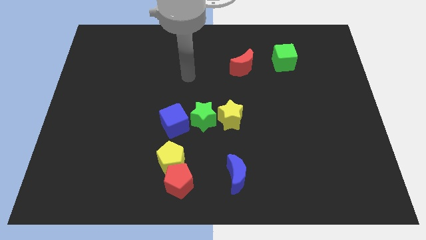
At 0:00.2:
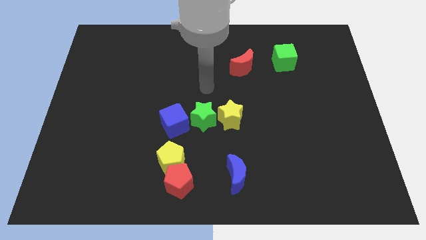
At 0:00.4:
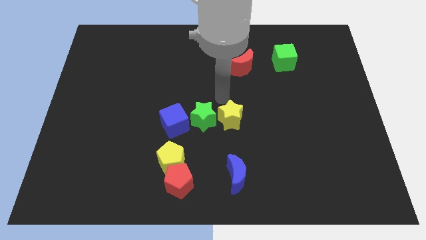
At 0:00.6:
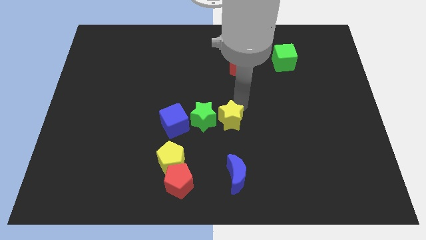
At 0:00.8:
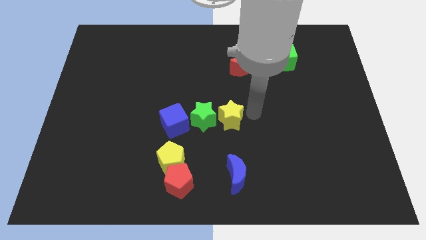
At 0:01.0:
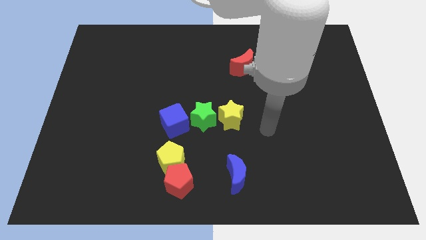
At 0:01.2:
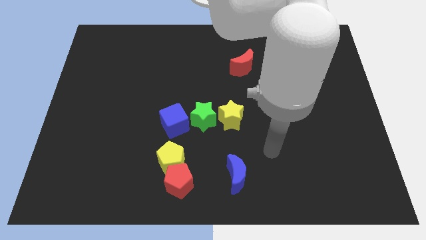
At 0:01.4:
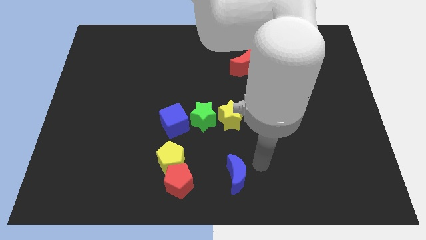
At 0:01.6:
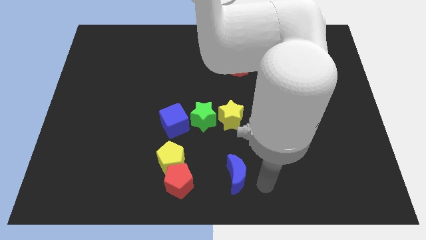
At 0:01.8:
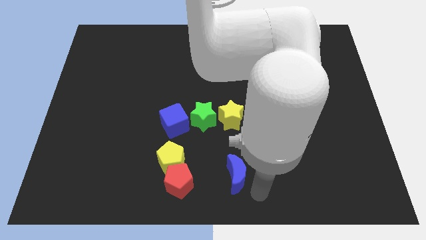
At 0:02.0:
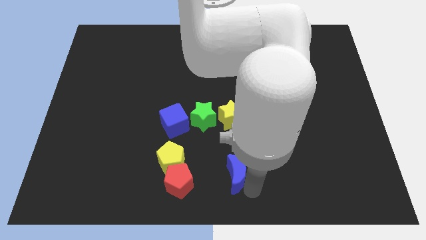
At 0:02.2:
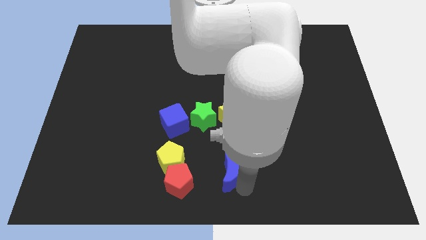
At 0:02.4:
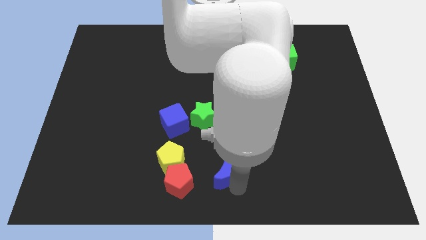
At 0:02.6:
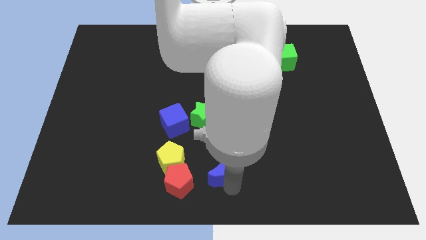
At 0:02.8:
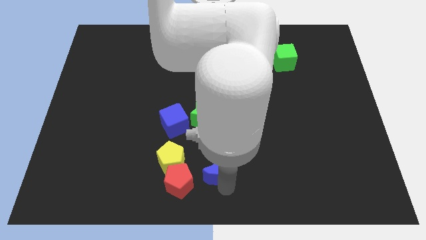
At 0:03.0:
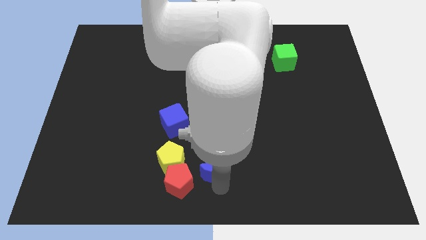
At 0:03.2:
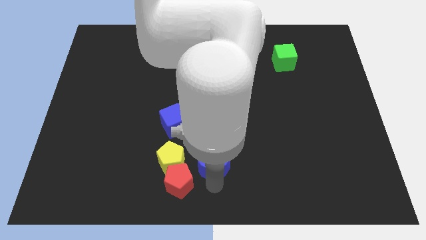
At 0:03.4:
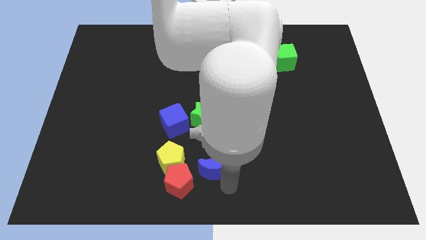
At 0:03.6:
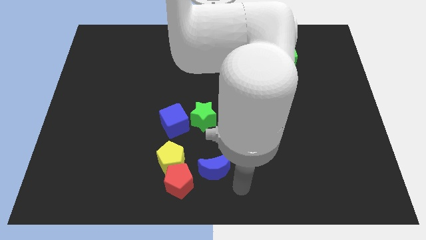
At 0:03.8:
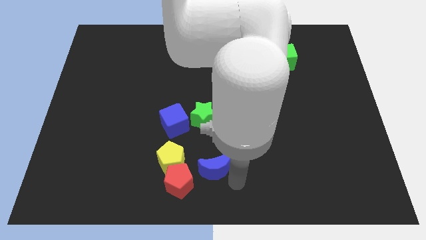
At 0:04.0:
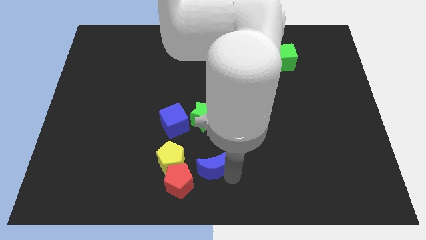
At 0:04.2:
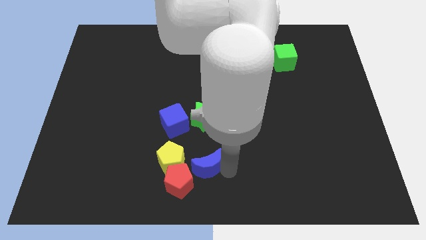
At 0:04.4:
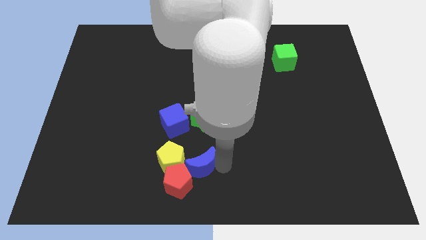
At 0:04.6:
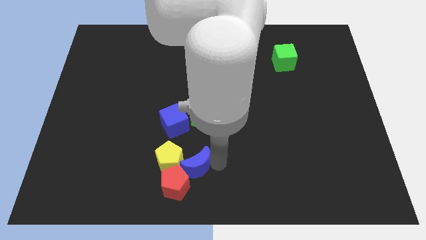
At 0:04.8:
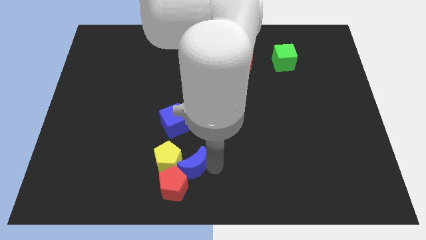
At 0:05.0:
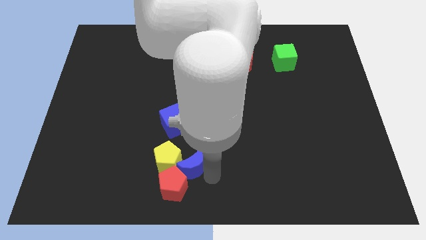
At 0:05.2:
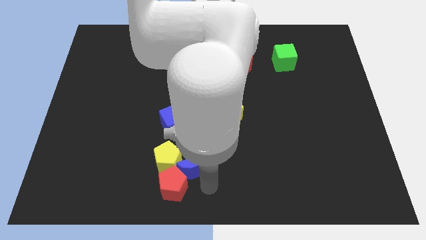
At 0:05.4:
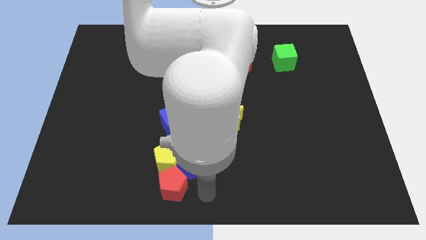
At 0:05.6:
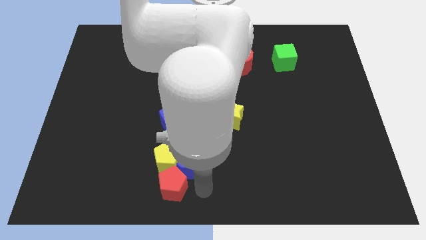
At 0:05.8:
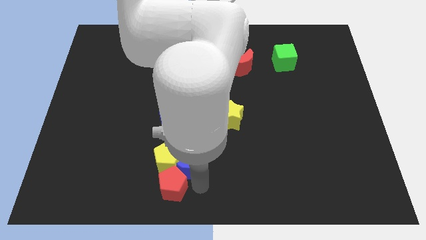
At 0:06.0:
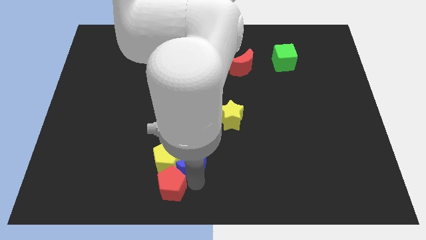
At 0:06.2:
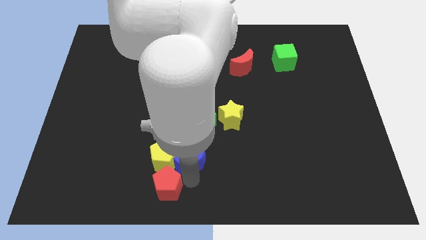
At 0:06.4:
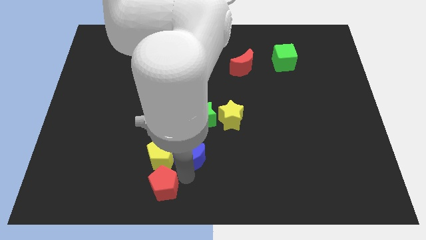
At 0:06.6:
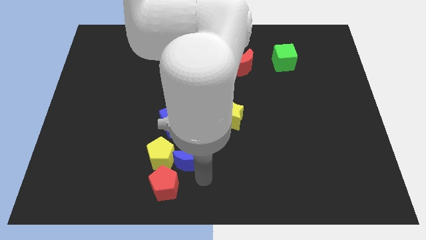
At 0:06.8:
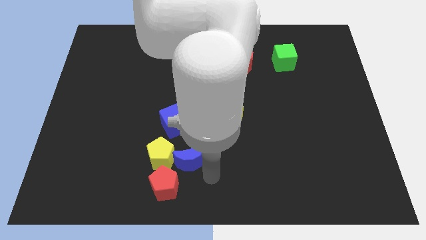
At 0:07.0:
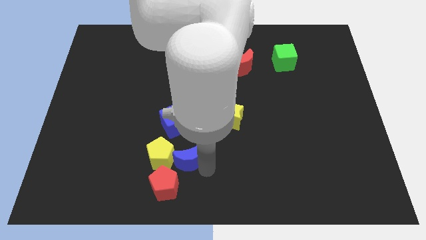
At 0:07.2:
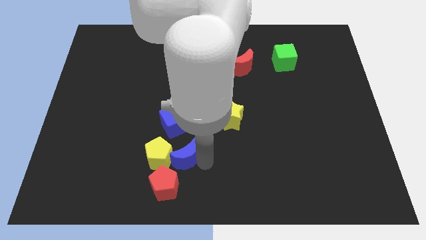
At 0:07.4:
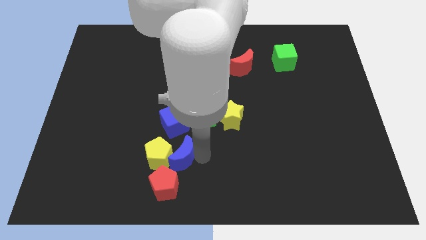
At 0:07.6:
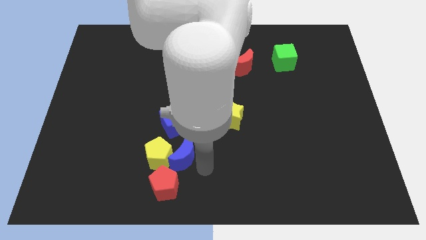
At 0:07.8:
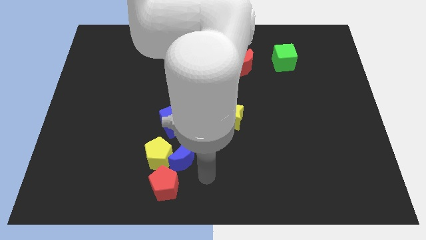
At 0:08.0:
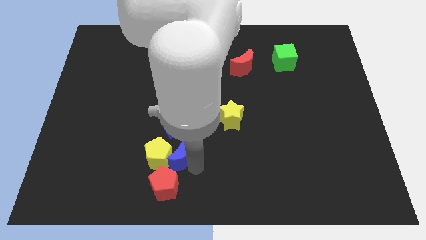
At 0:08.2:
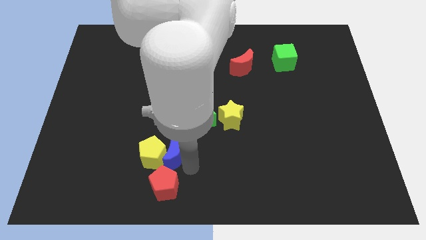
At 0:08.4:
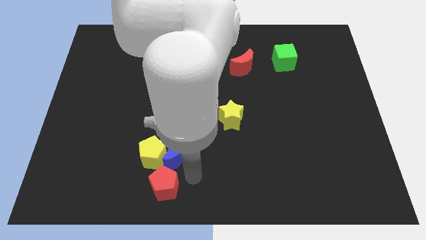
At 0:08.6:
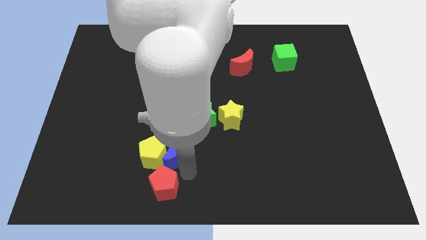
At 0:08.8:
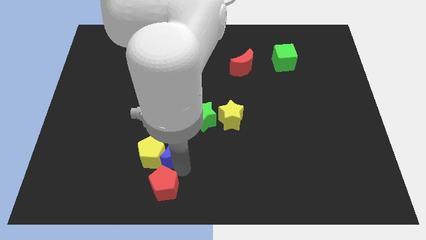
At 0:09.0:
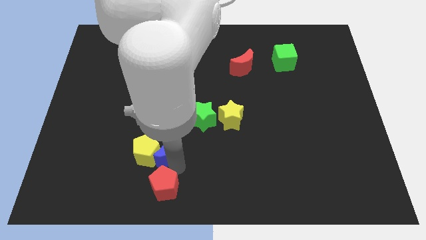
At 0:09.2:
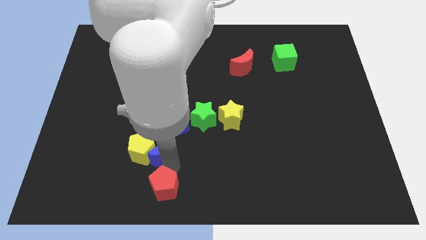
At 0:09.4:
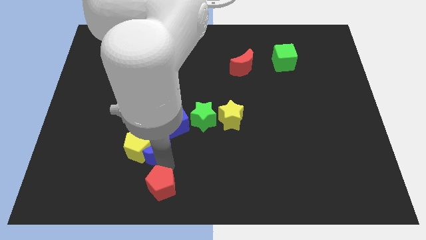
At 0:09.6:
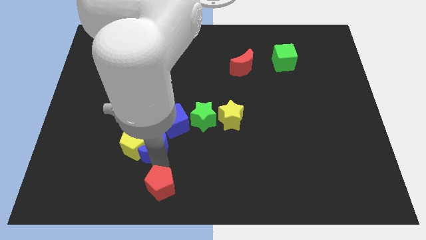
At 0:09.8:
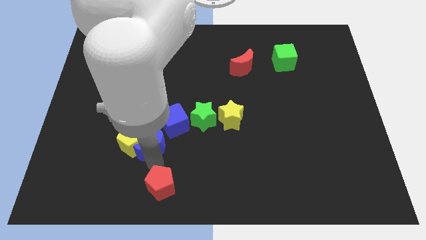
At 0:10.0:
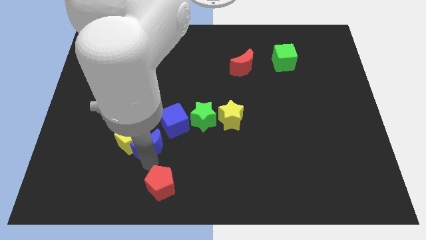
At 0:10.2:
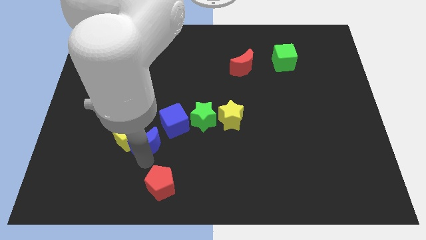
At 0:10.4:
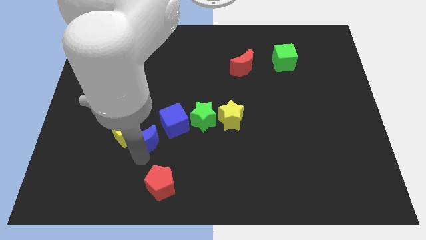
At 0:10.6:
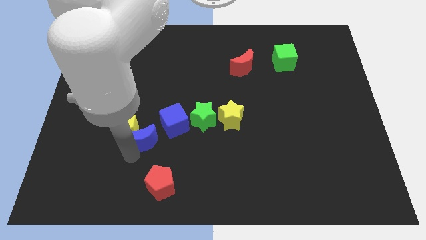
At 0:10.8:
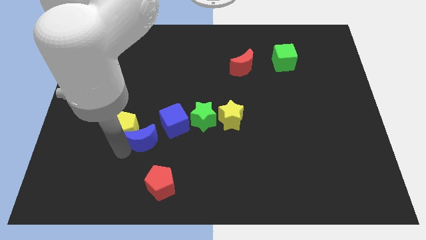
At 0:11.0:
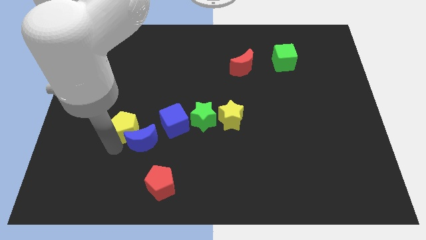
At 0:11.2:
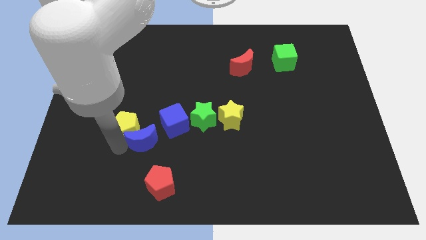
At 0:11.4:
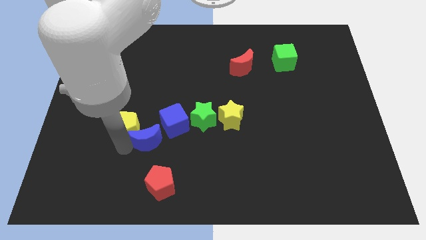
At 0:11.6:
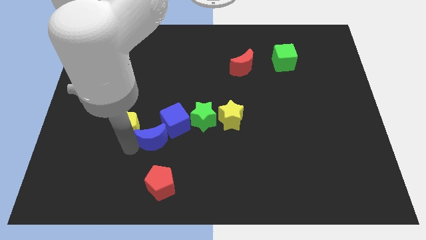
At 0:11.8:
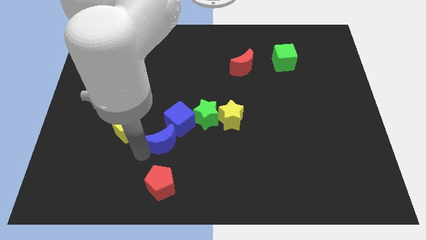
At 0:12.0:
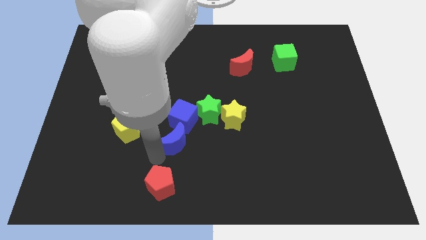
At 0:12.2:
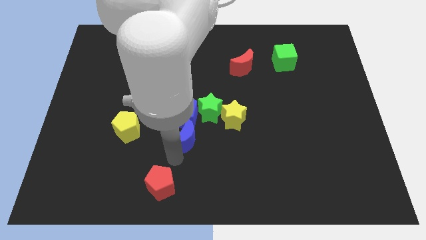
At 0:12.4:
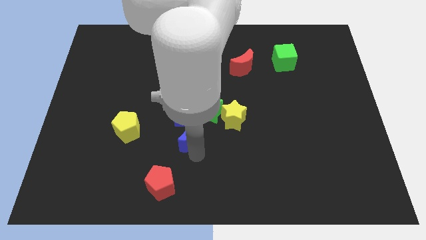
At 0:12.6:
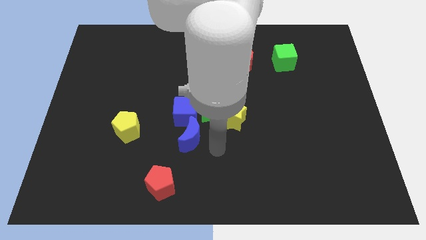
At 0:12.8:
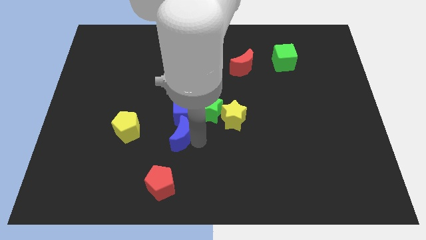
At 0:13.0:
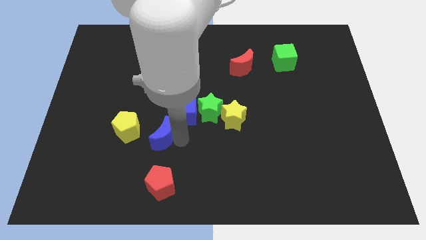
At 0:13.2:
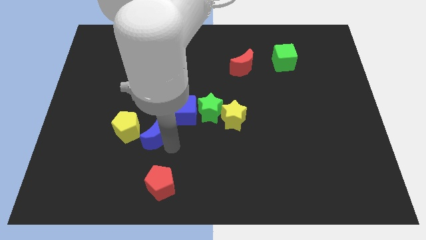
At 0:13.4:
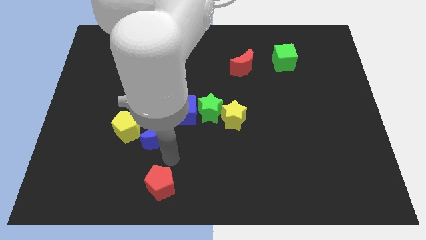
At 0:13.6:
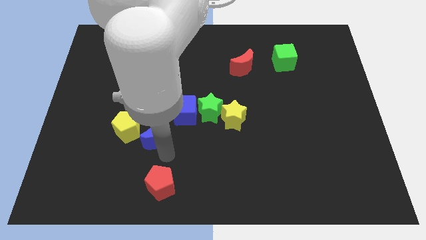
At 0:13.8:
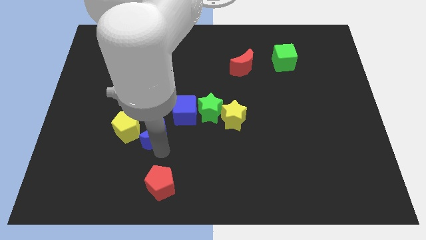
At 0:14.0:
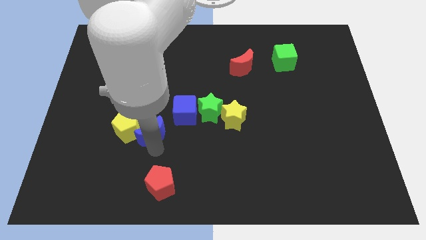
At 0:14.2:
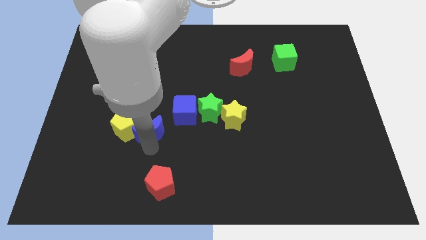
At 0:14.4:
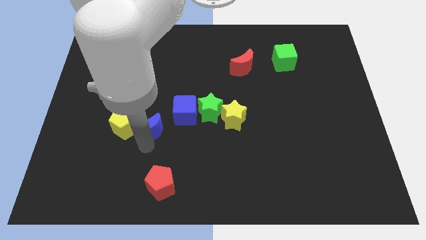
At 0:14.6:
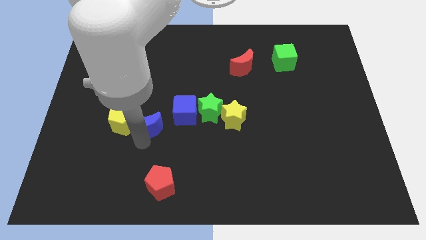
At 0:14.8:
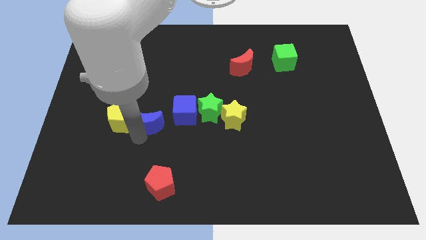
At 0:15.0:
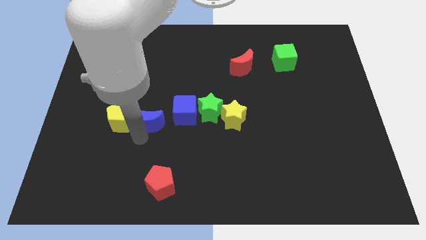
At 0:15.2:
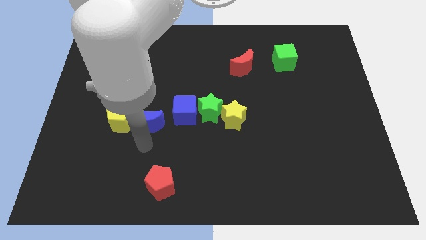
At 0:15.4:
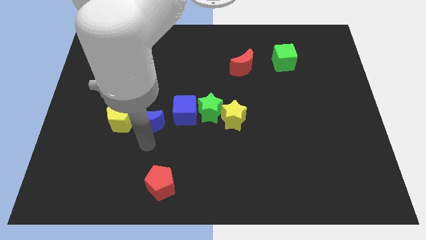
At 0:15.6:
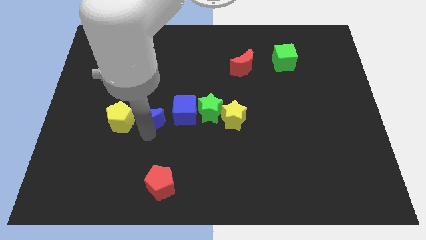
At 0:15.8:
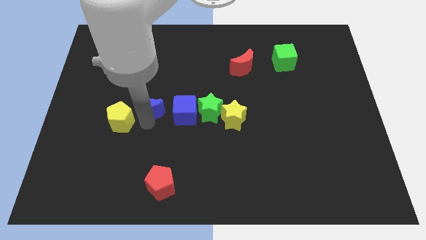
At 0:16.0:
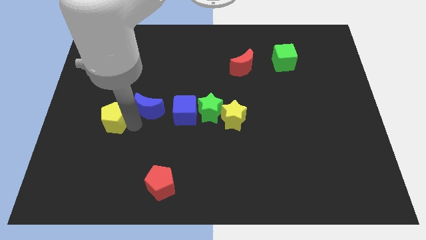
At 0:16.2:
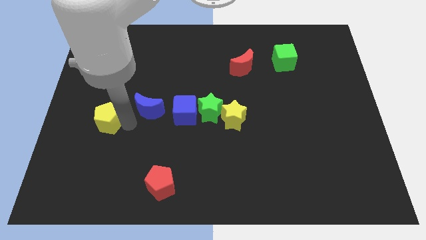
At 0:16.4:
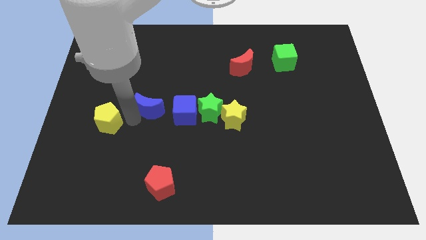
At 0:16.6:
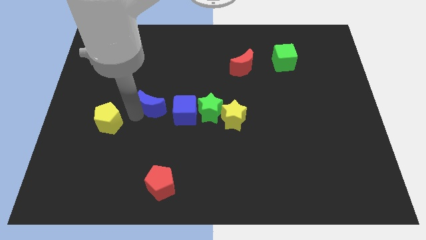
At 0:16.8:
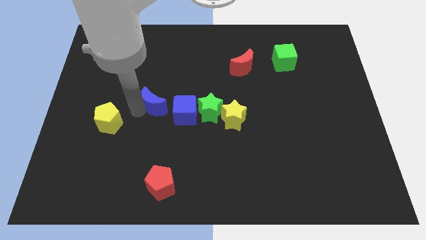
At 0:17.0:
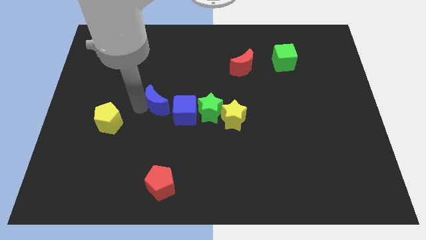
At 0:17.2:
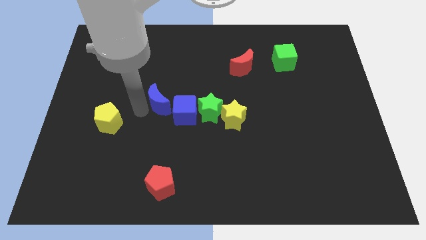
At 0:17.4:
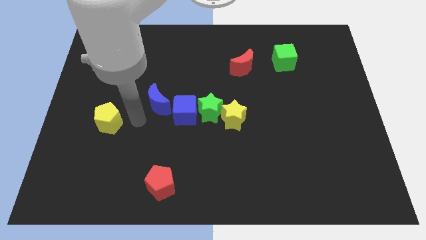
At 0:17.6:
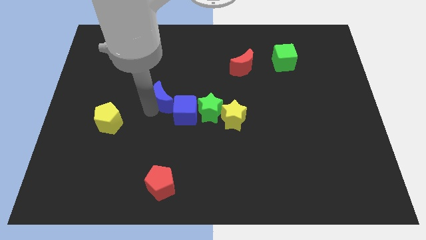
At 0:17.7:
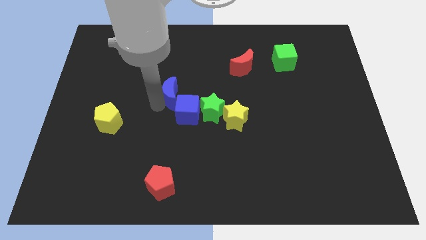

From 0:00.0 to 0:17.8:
push the blue moon to the top side of the blue cube
